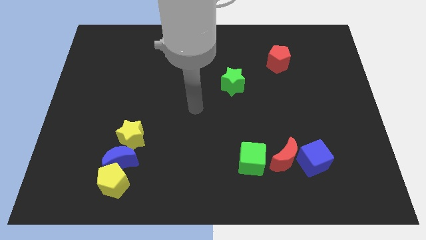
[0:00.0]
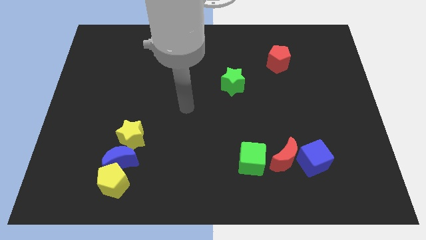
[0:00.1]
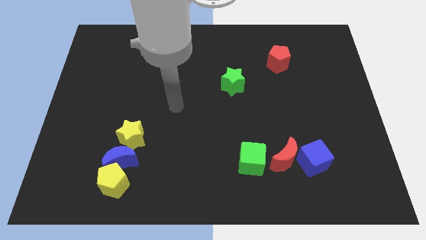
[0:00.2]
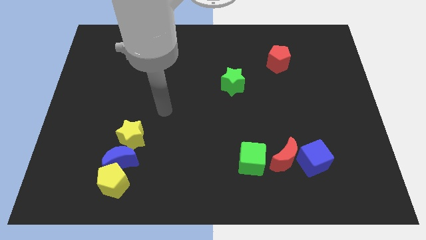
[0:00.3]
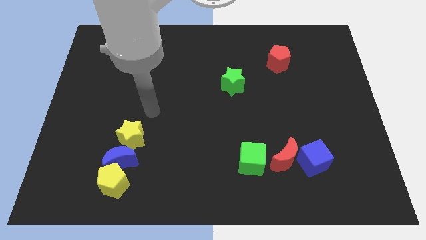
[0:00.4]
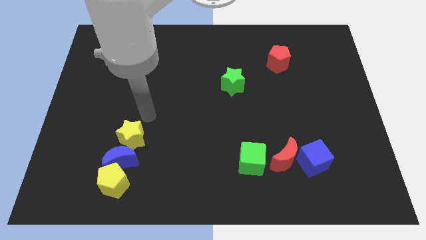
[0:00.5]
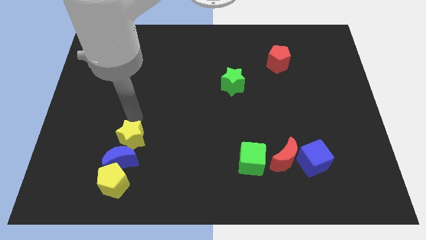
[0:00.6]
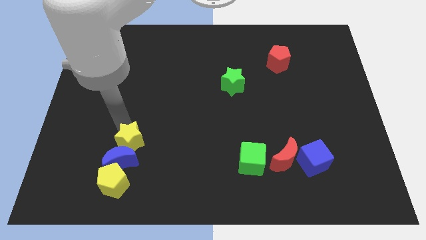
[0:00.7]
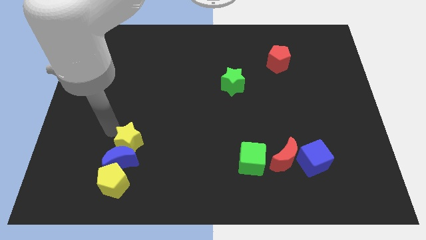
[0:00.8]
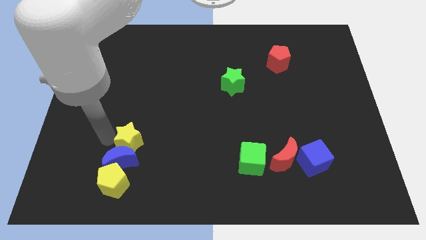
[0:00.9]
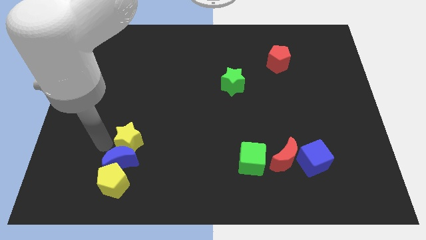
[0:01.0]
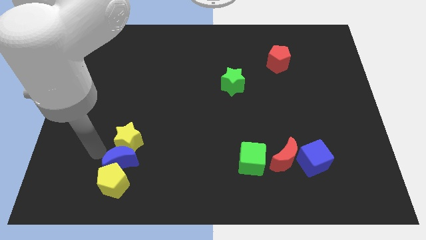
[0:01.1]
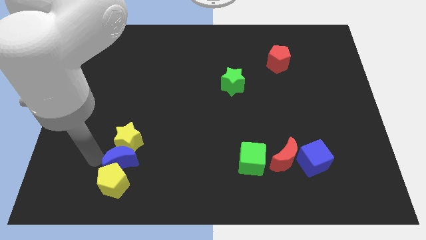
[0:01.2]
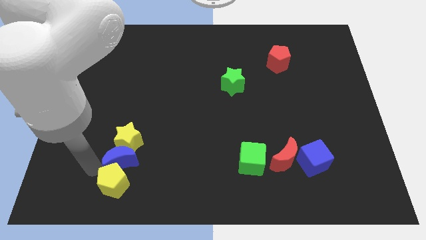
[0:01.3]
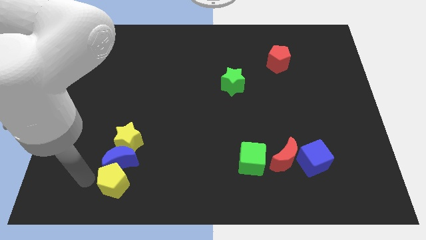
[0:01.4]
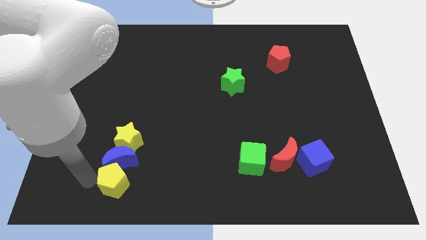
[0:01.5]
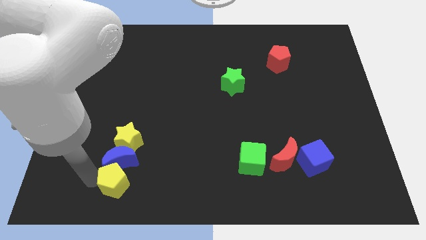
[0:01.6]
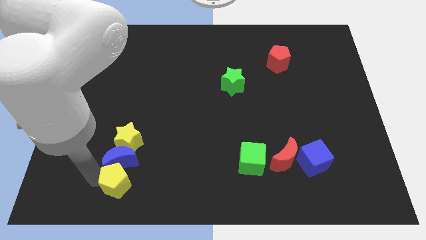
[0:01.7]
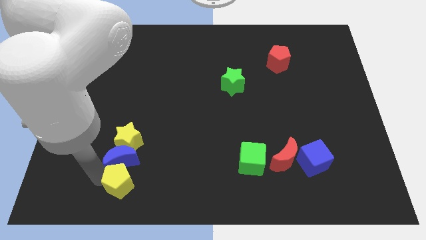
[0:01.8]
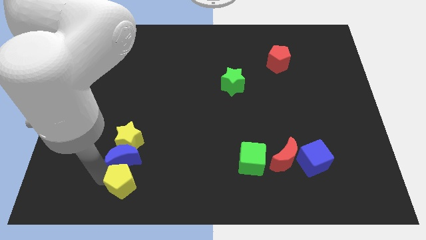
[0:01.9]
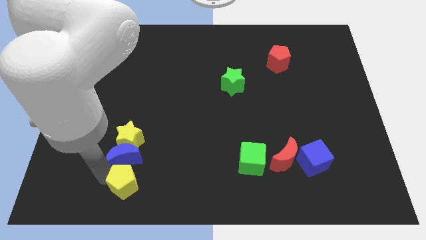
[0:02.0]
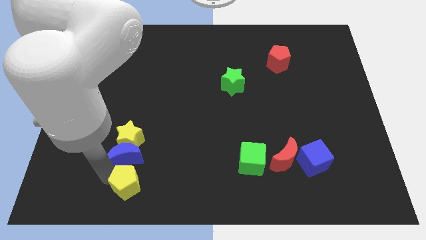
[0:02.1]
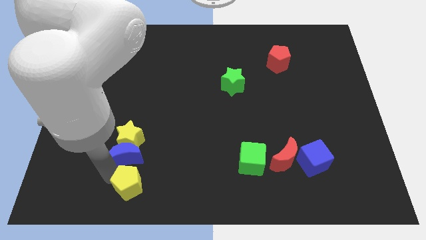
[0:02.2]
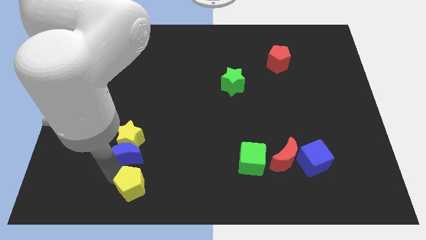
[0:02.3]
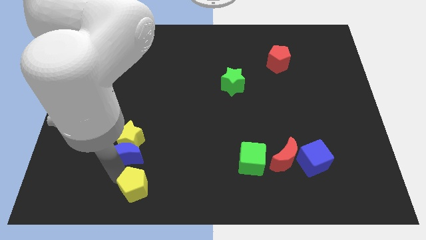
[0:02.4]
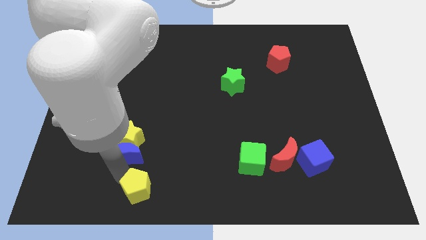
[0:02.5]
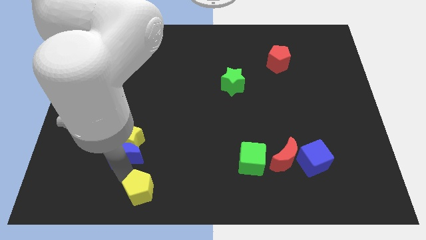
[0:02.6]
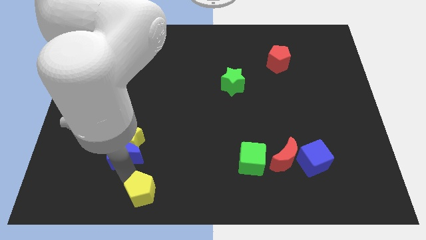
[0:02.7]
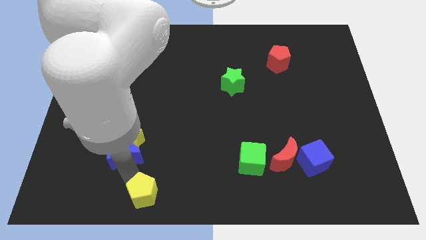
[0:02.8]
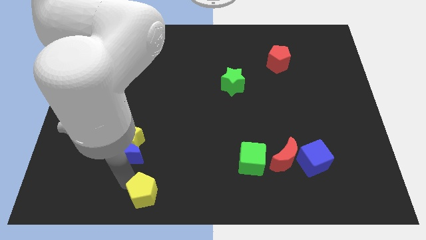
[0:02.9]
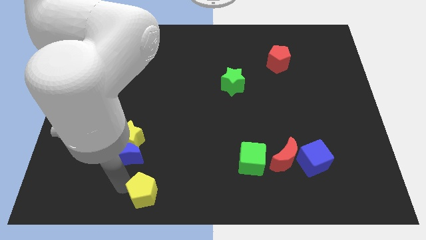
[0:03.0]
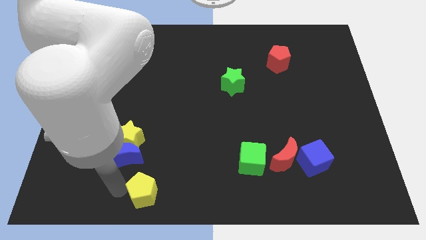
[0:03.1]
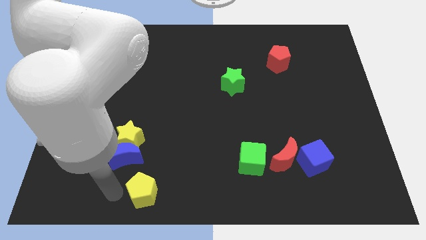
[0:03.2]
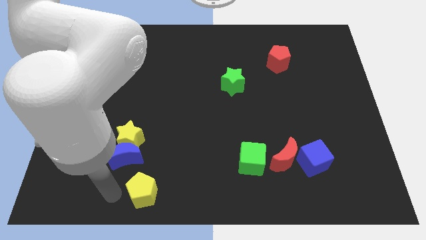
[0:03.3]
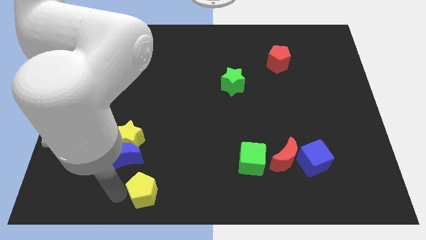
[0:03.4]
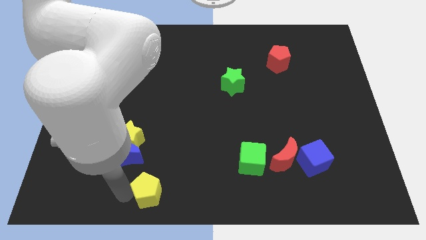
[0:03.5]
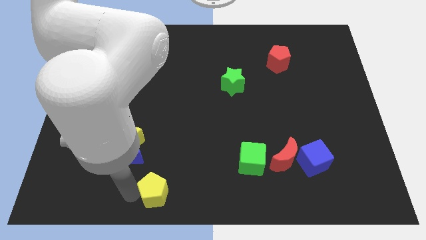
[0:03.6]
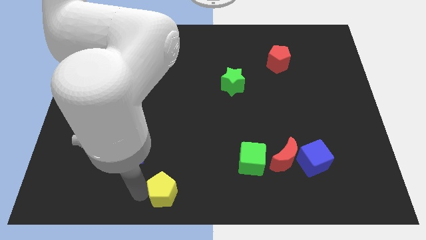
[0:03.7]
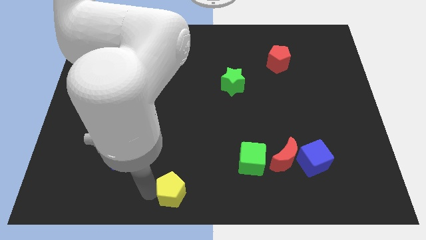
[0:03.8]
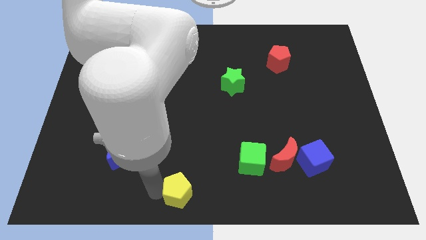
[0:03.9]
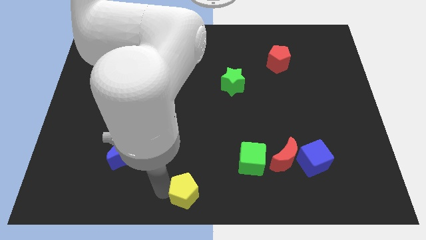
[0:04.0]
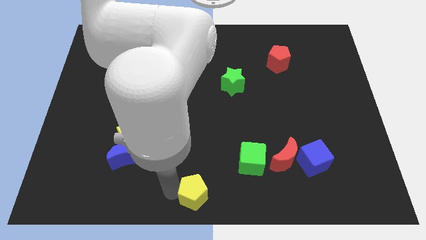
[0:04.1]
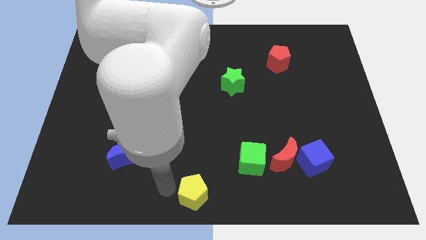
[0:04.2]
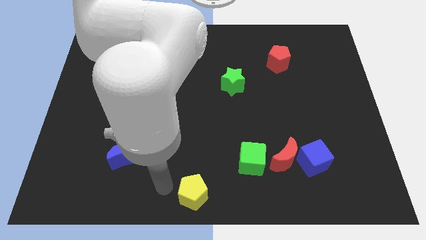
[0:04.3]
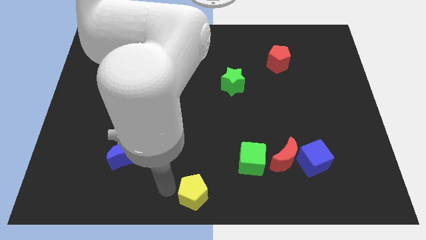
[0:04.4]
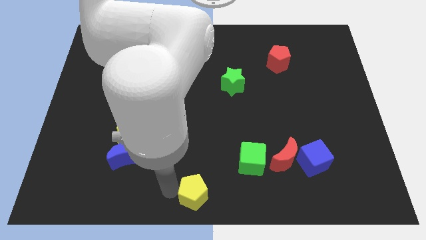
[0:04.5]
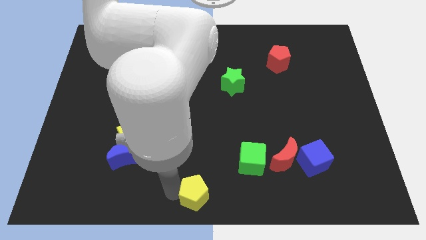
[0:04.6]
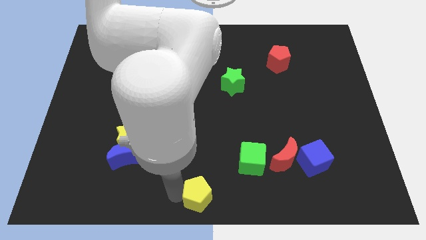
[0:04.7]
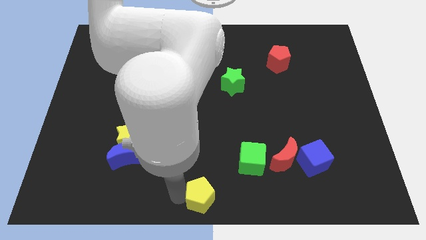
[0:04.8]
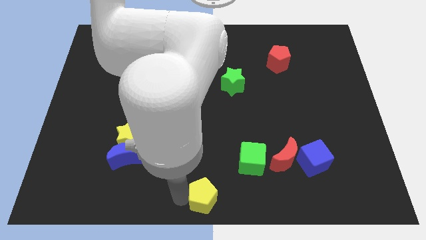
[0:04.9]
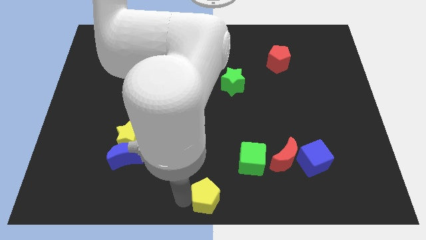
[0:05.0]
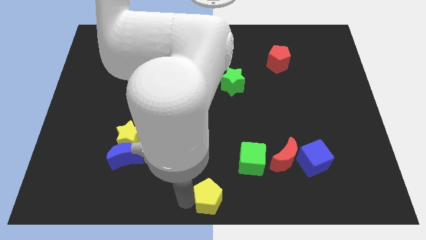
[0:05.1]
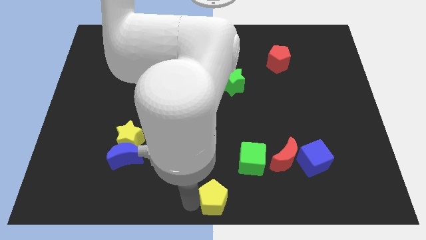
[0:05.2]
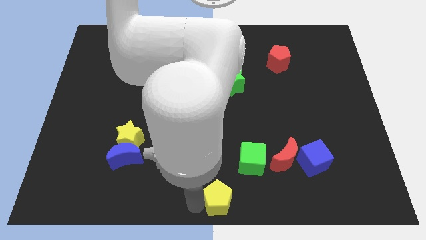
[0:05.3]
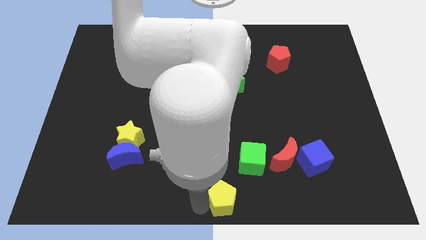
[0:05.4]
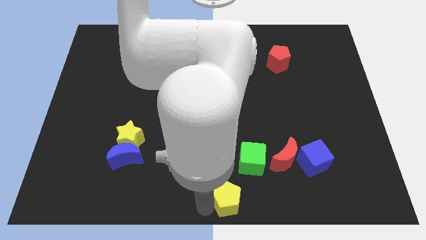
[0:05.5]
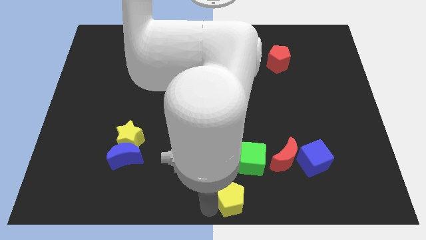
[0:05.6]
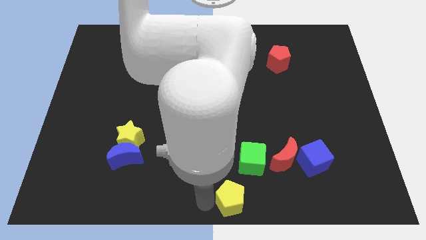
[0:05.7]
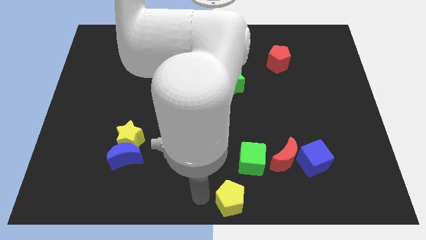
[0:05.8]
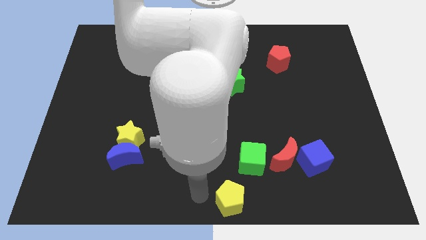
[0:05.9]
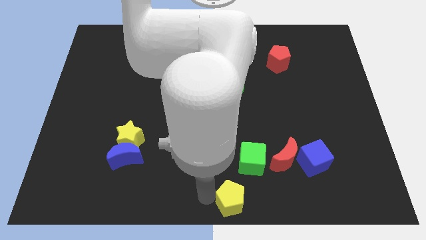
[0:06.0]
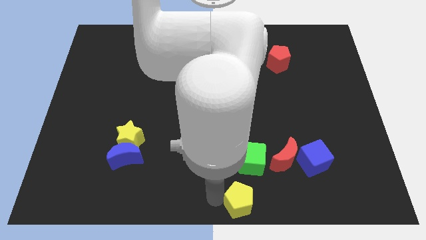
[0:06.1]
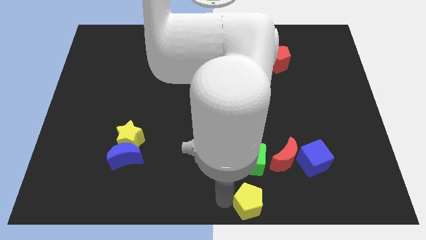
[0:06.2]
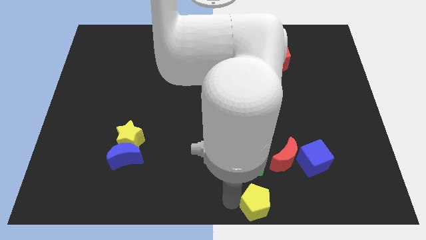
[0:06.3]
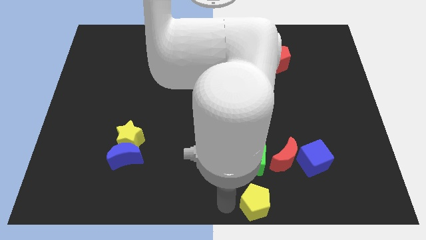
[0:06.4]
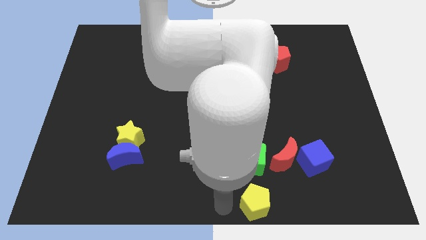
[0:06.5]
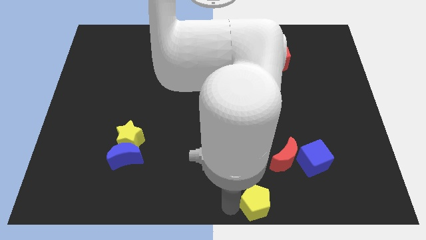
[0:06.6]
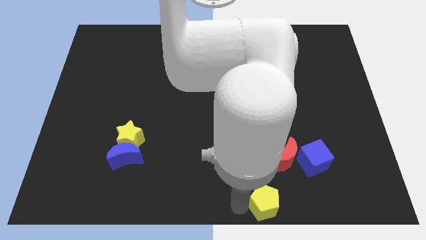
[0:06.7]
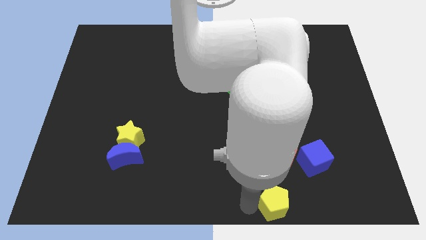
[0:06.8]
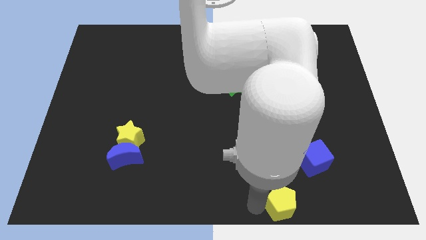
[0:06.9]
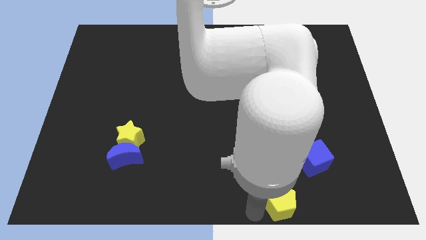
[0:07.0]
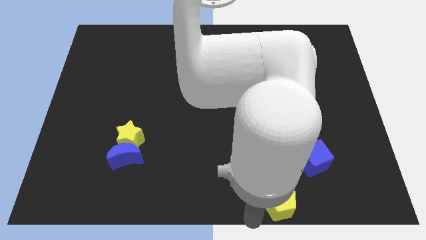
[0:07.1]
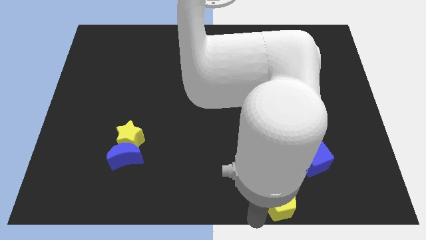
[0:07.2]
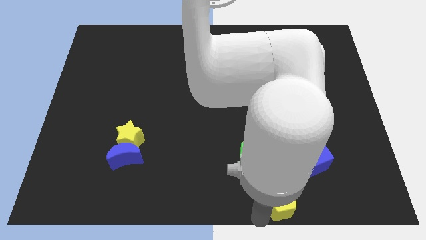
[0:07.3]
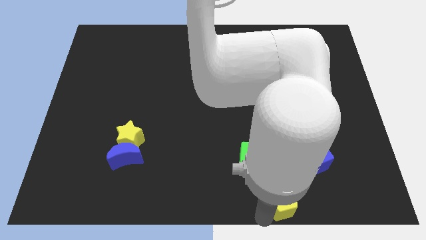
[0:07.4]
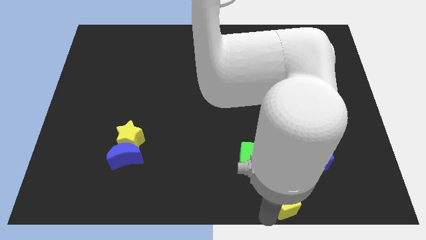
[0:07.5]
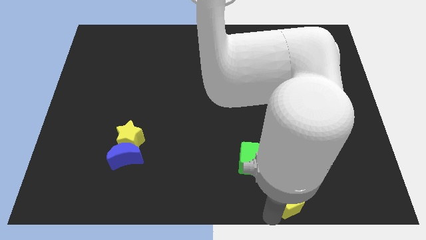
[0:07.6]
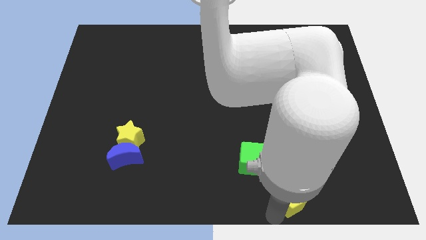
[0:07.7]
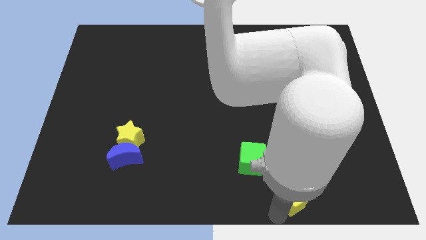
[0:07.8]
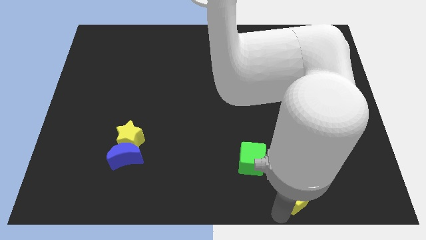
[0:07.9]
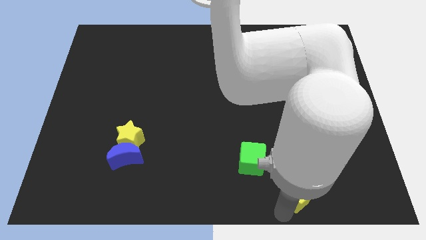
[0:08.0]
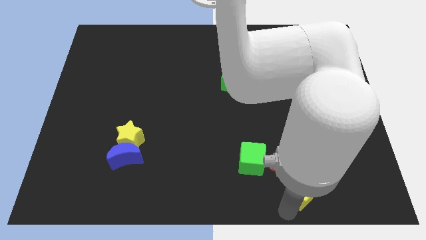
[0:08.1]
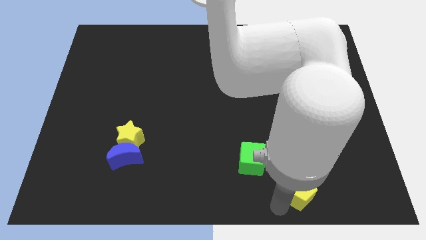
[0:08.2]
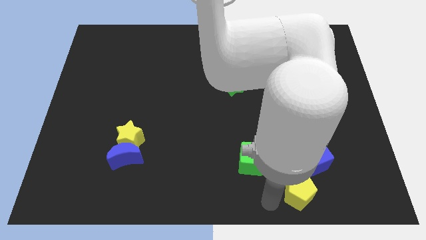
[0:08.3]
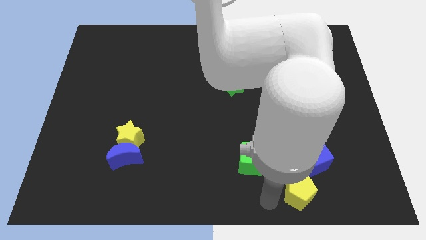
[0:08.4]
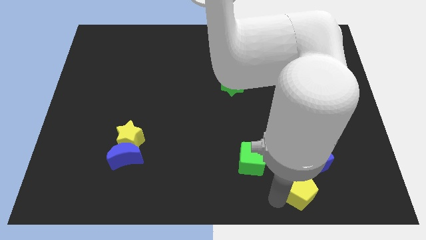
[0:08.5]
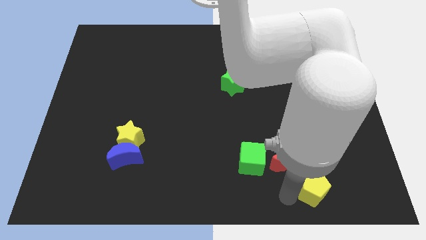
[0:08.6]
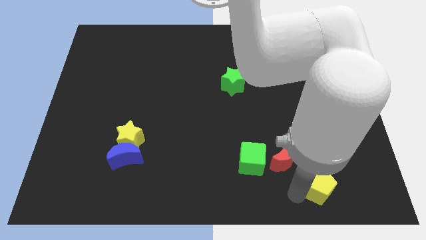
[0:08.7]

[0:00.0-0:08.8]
push the yellow pentagon to the bottom right side of the blue cube
